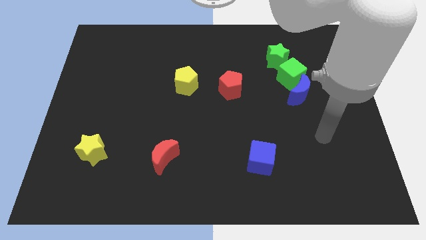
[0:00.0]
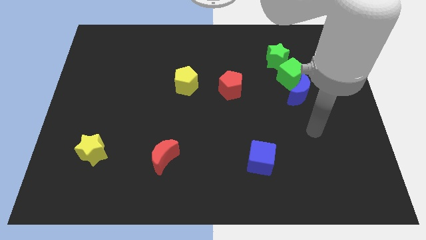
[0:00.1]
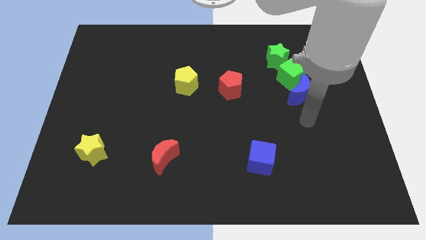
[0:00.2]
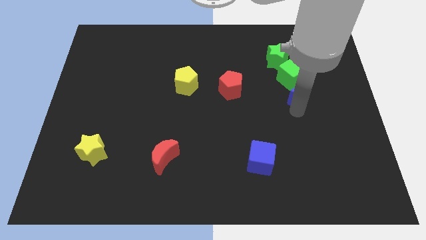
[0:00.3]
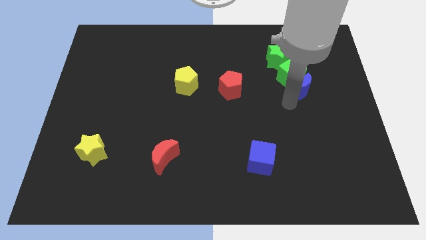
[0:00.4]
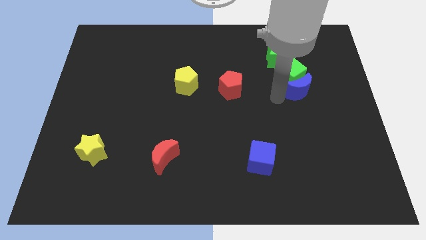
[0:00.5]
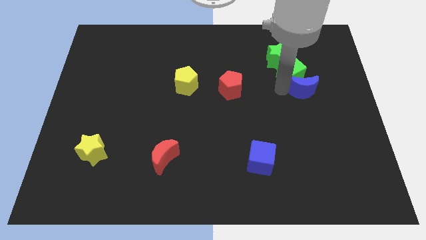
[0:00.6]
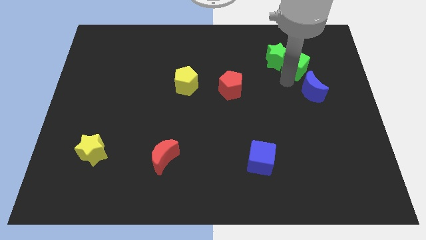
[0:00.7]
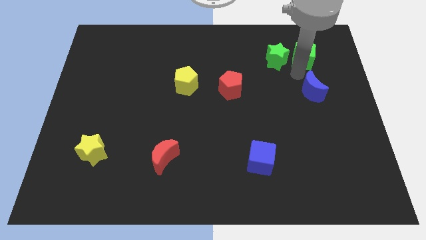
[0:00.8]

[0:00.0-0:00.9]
pull the blue moon apart from the green cube

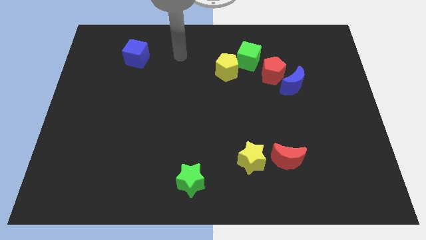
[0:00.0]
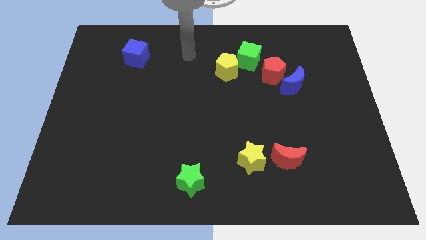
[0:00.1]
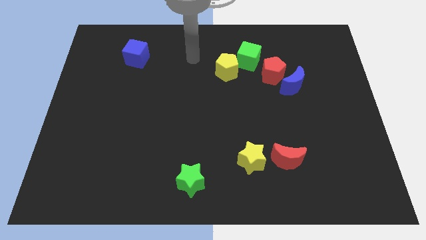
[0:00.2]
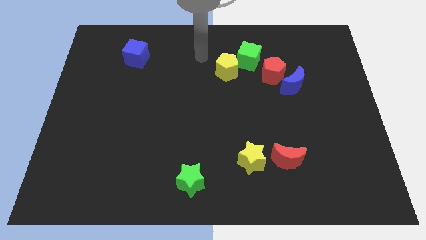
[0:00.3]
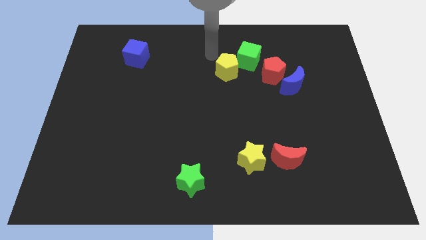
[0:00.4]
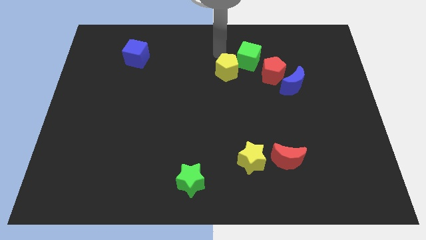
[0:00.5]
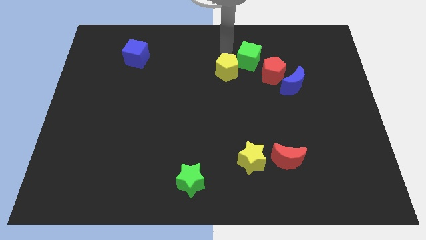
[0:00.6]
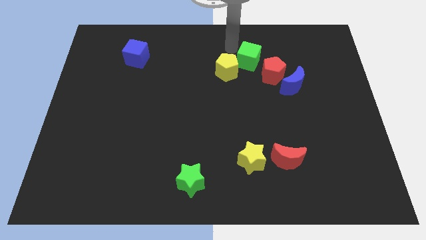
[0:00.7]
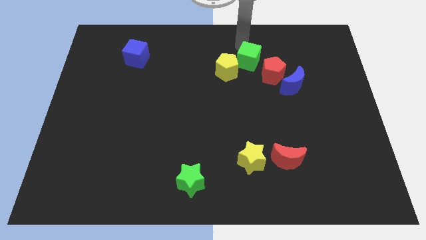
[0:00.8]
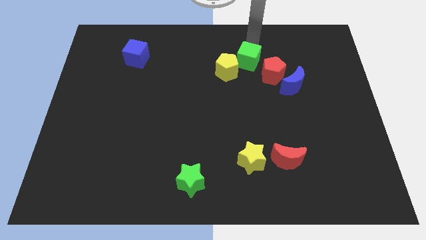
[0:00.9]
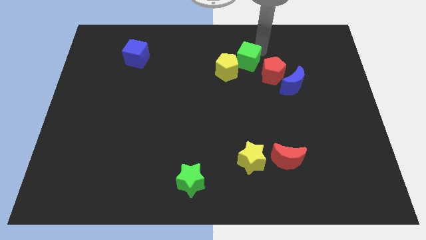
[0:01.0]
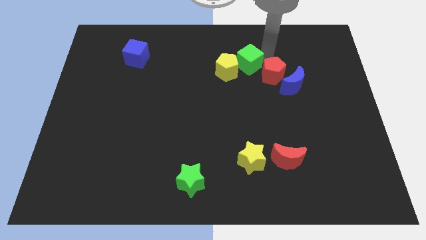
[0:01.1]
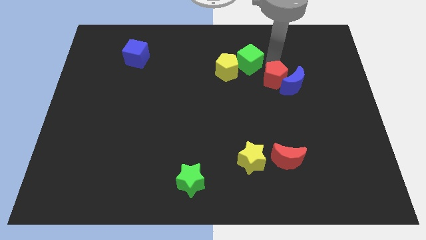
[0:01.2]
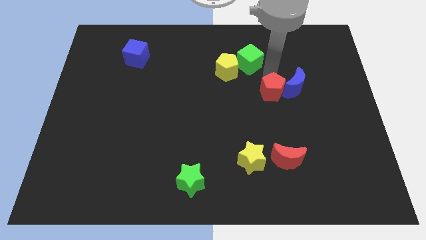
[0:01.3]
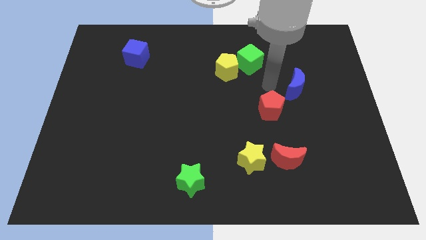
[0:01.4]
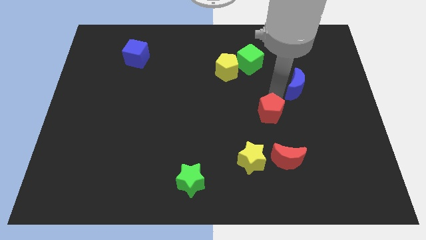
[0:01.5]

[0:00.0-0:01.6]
move the blue moon away from the red pentagon

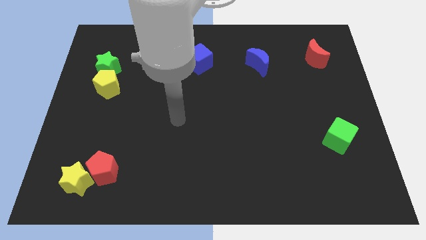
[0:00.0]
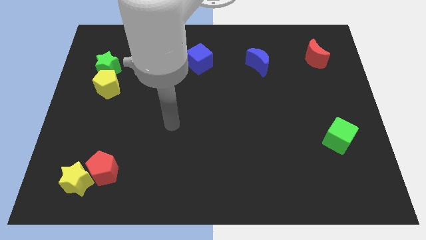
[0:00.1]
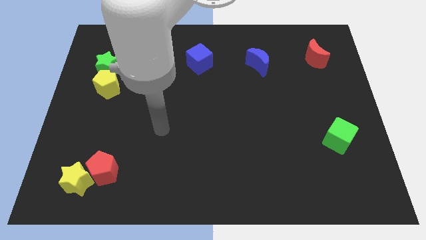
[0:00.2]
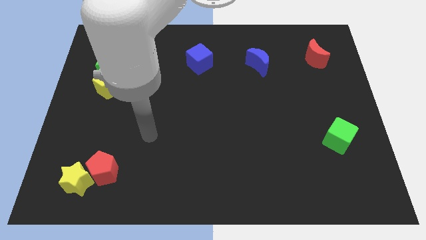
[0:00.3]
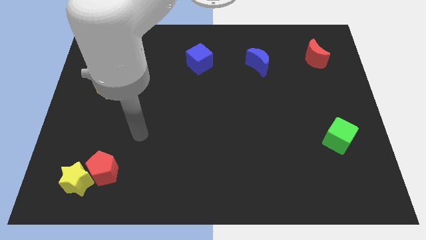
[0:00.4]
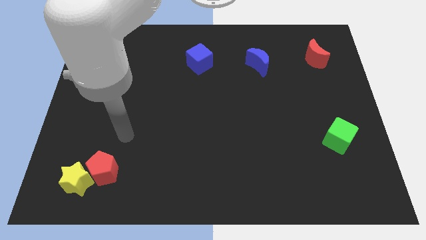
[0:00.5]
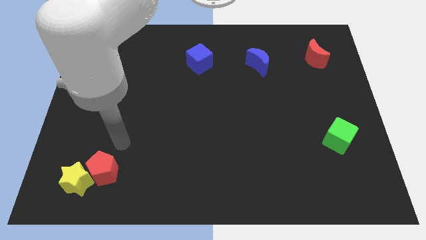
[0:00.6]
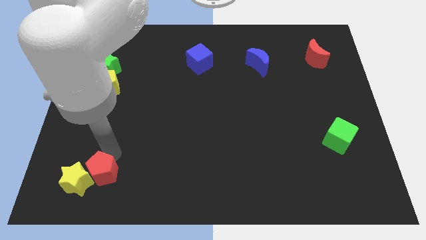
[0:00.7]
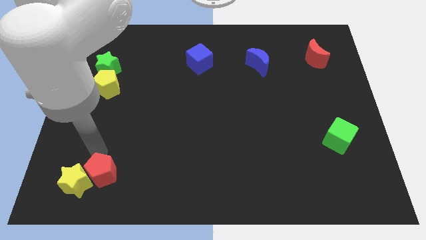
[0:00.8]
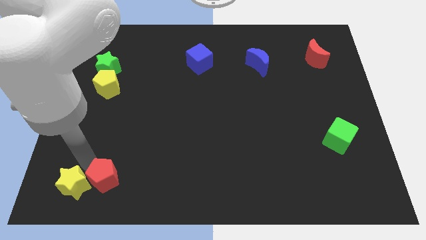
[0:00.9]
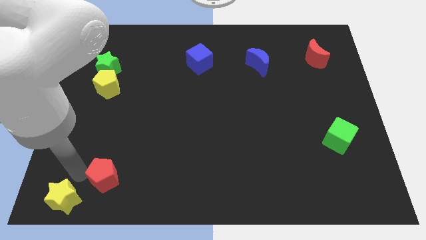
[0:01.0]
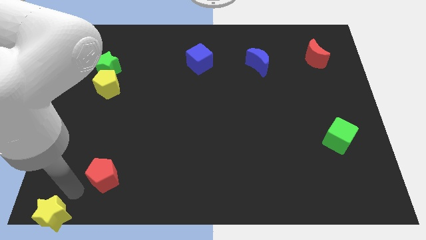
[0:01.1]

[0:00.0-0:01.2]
separate the red pentagon from the yellow star

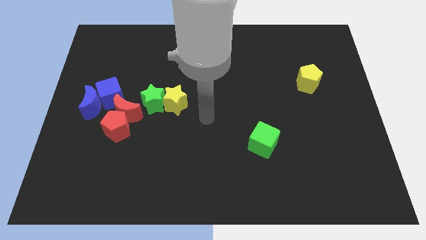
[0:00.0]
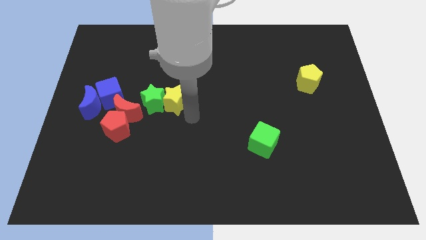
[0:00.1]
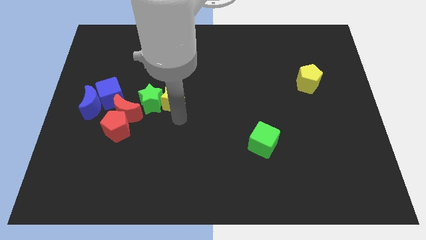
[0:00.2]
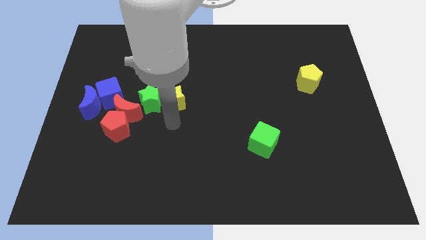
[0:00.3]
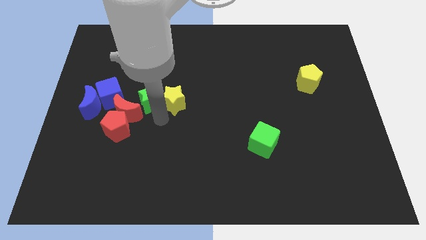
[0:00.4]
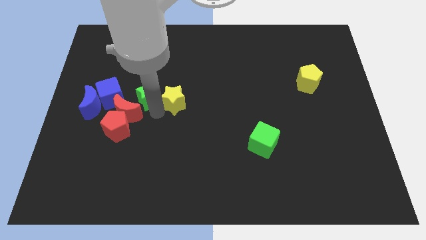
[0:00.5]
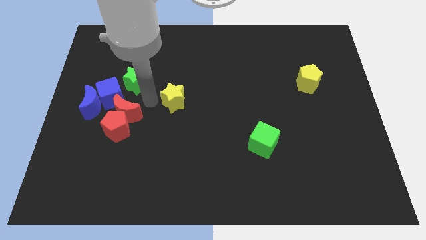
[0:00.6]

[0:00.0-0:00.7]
pull the yellow star apart from the green star

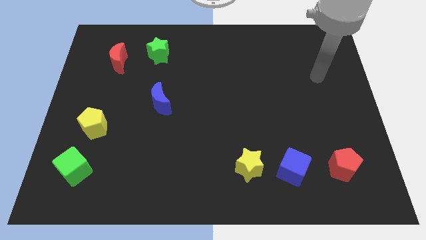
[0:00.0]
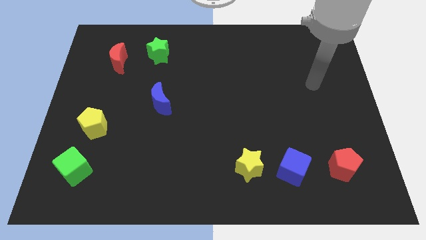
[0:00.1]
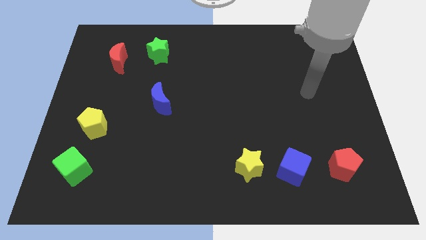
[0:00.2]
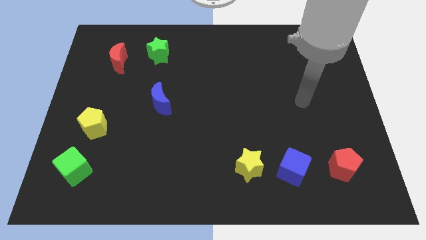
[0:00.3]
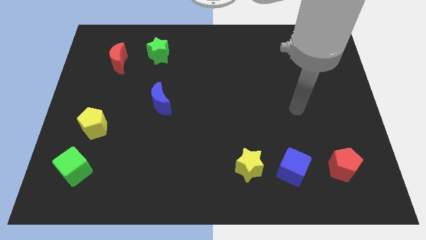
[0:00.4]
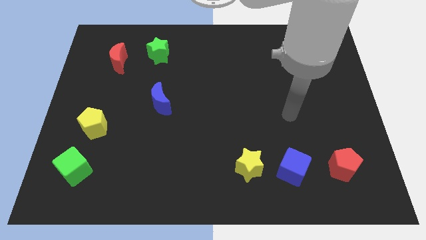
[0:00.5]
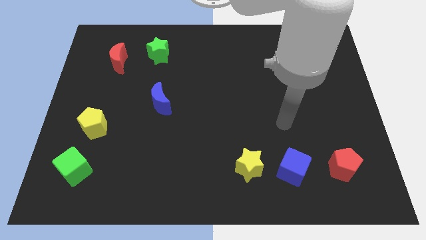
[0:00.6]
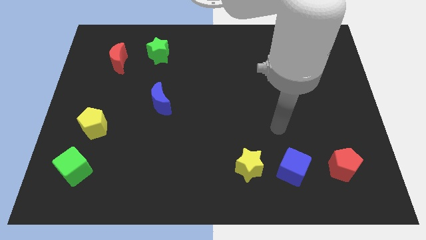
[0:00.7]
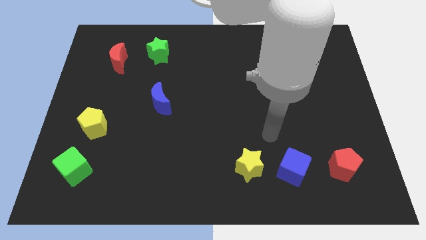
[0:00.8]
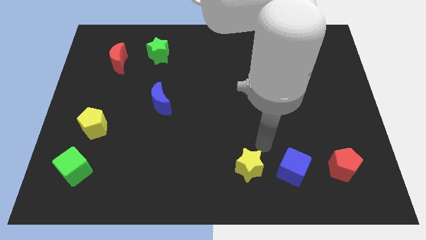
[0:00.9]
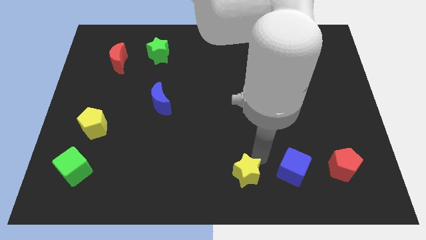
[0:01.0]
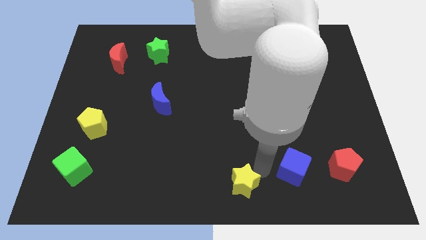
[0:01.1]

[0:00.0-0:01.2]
separate the blue cube from the yellow star

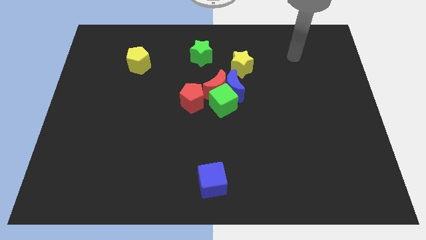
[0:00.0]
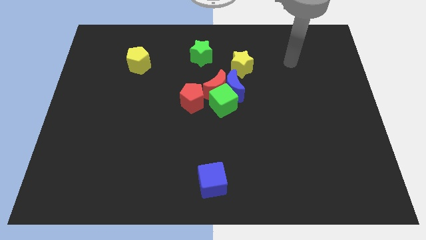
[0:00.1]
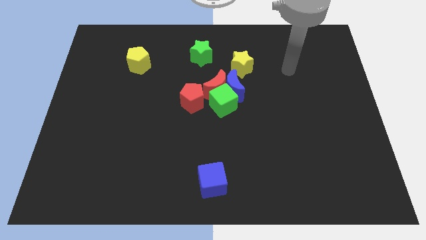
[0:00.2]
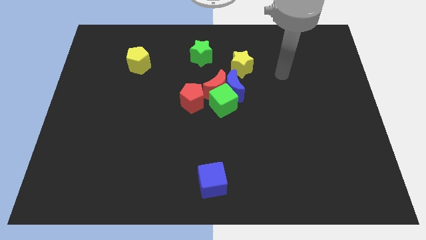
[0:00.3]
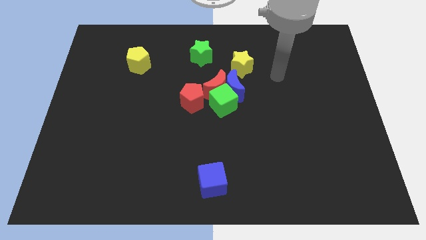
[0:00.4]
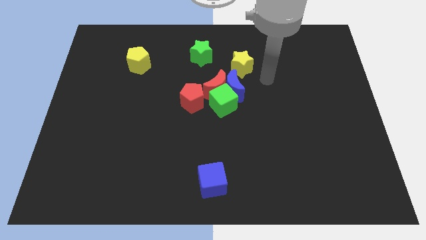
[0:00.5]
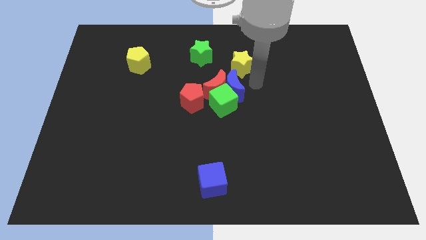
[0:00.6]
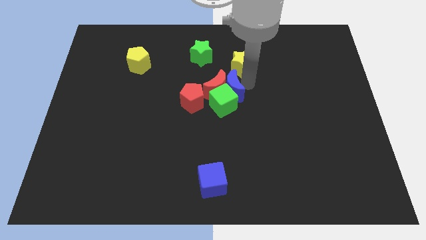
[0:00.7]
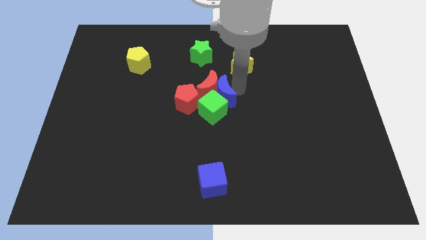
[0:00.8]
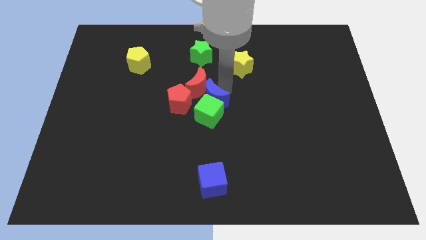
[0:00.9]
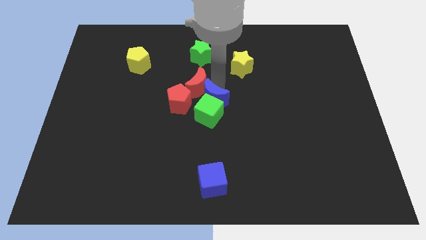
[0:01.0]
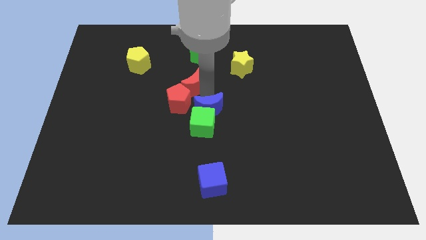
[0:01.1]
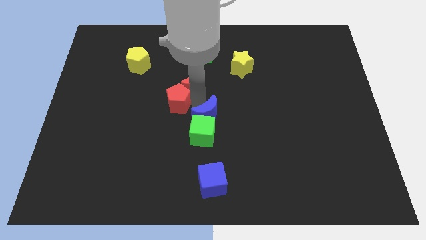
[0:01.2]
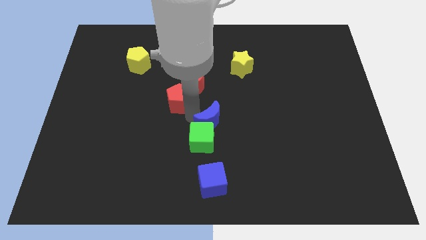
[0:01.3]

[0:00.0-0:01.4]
pull the green cube apart from the group

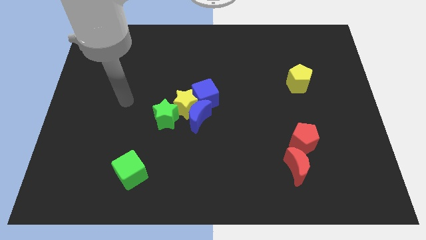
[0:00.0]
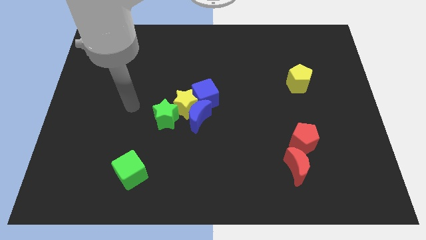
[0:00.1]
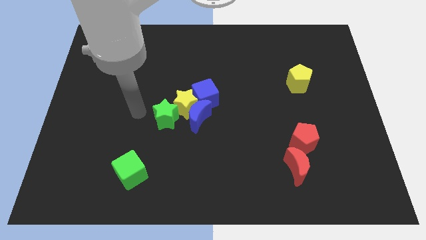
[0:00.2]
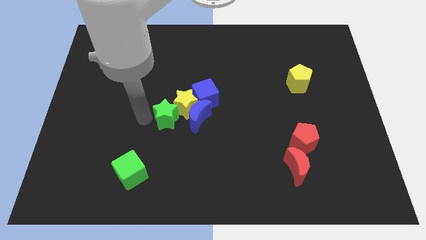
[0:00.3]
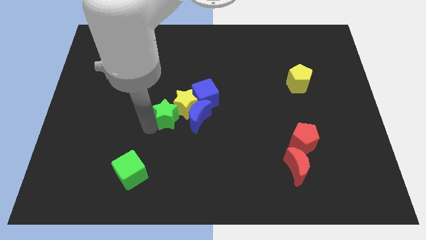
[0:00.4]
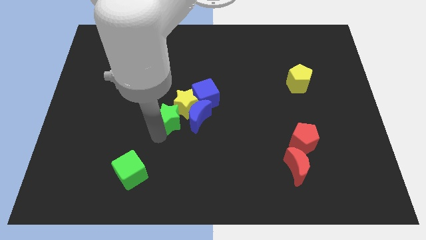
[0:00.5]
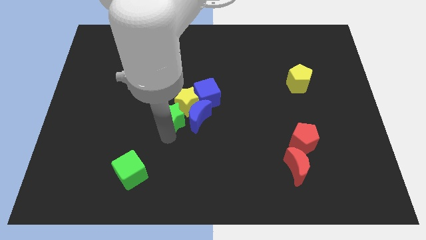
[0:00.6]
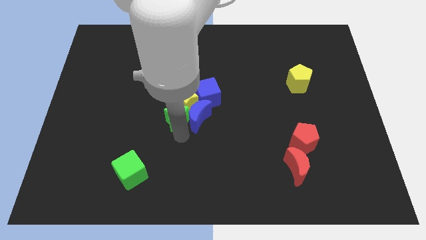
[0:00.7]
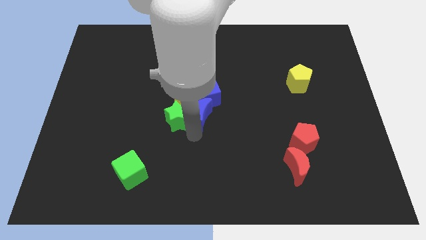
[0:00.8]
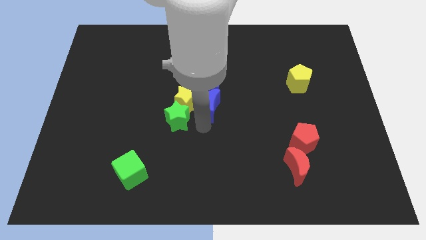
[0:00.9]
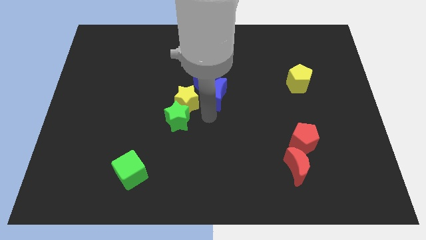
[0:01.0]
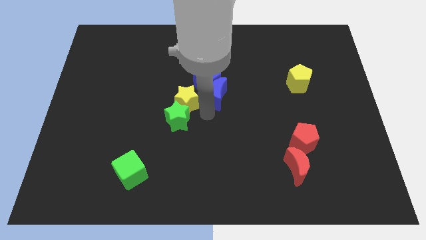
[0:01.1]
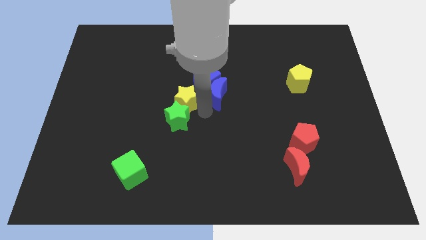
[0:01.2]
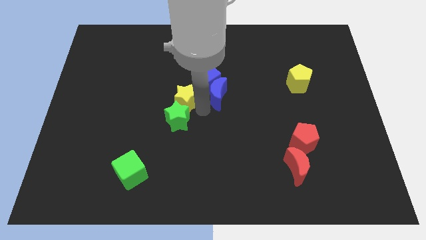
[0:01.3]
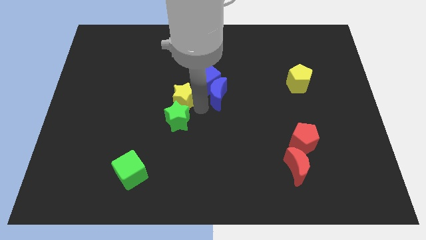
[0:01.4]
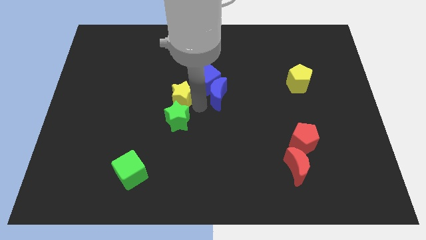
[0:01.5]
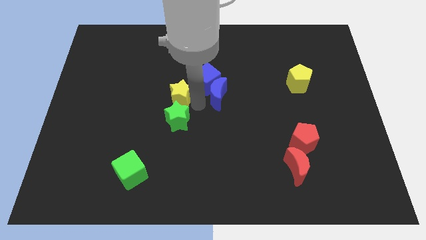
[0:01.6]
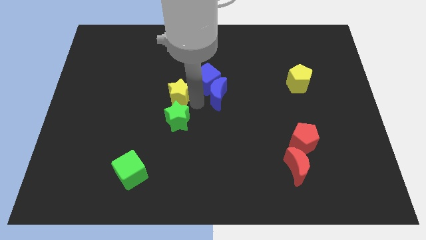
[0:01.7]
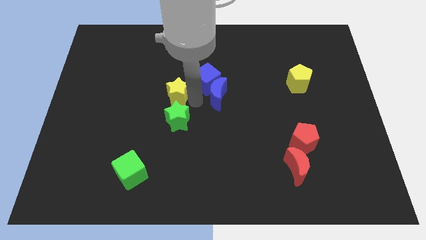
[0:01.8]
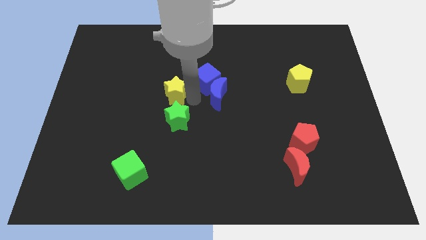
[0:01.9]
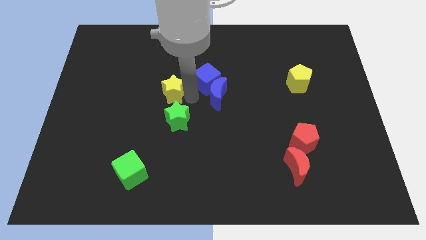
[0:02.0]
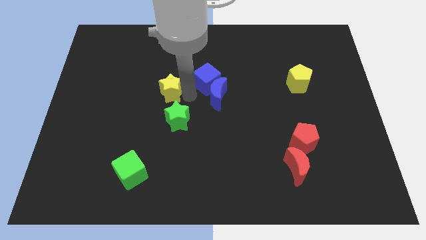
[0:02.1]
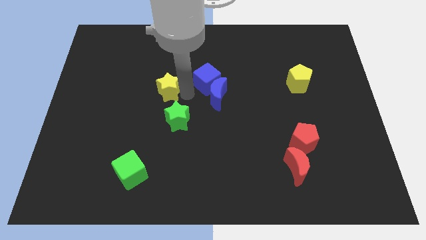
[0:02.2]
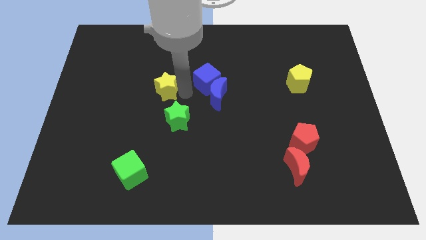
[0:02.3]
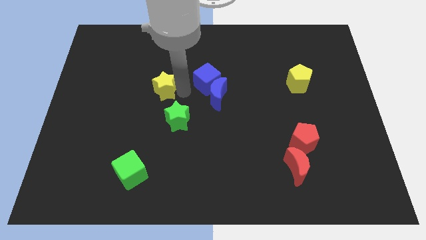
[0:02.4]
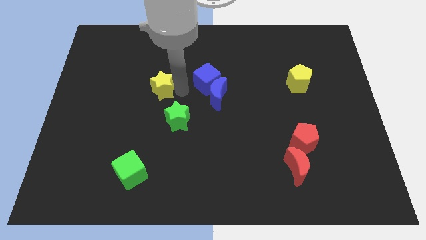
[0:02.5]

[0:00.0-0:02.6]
separate the yellow star from the blue moon, green star, and blue cube
